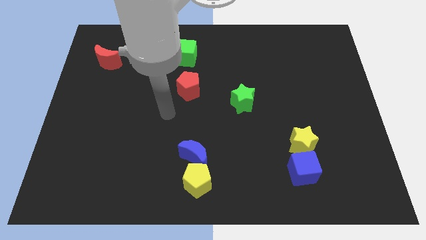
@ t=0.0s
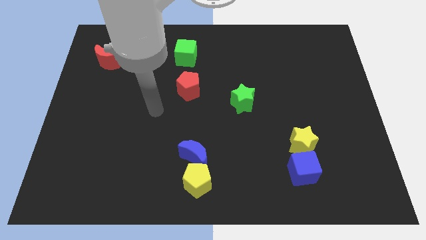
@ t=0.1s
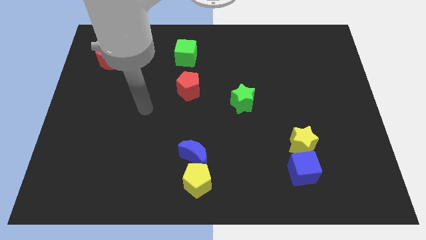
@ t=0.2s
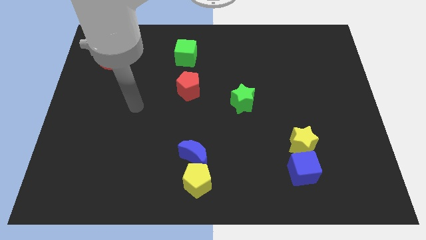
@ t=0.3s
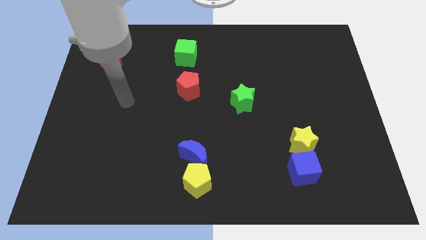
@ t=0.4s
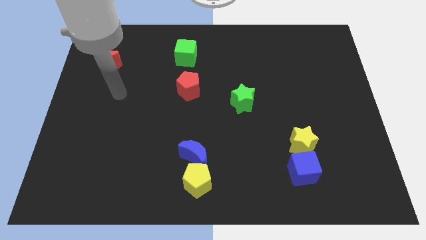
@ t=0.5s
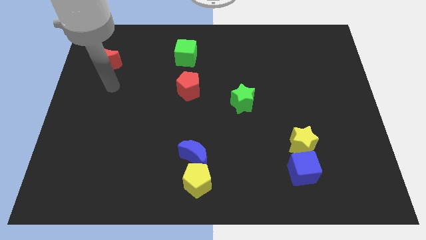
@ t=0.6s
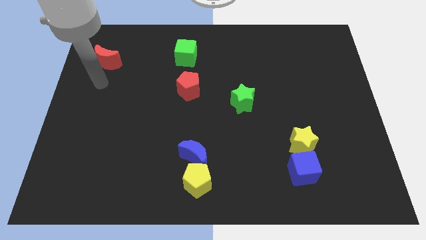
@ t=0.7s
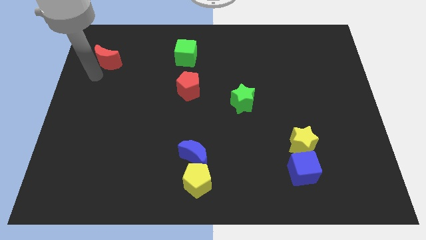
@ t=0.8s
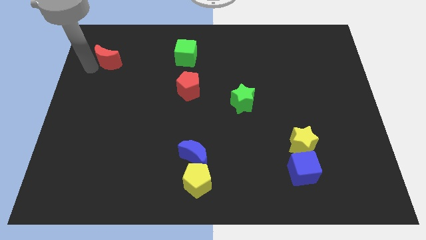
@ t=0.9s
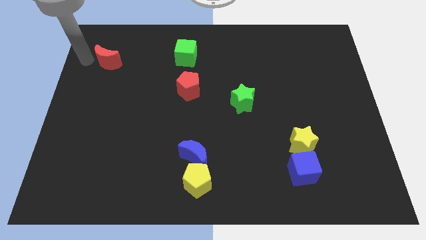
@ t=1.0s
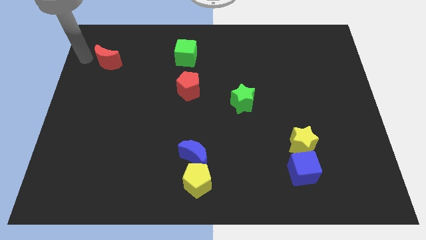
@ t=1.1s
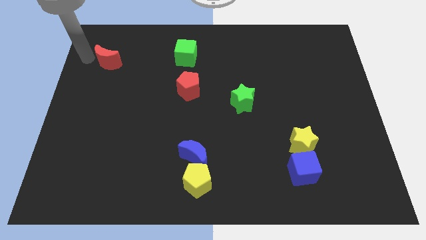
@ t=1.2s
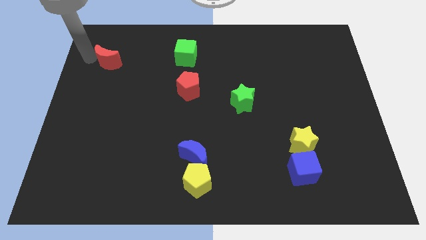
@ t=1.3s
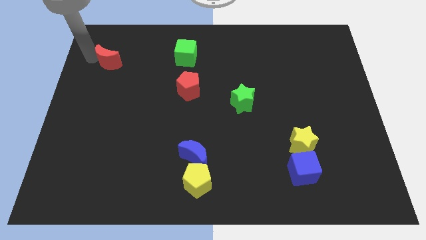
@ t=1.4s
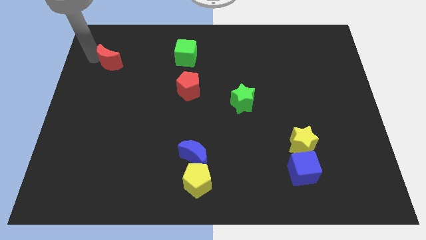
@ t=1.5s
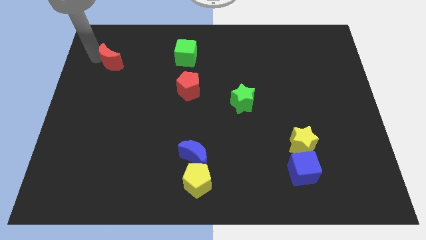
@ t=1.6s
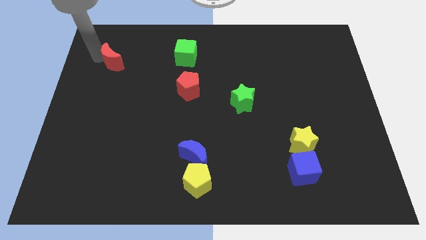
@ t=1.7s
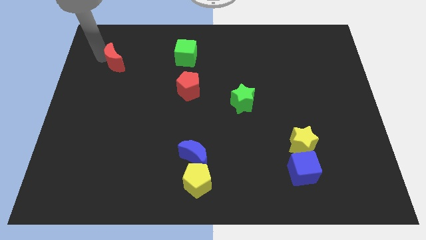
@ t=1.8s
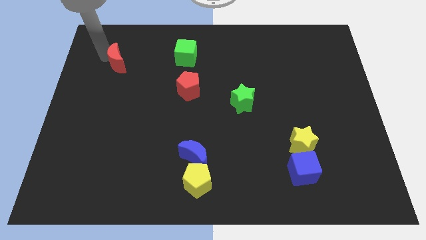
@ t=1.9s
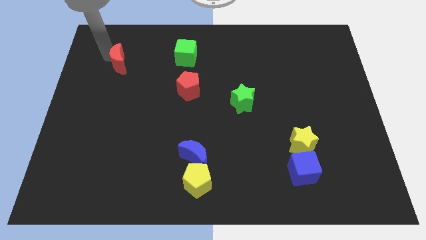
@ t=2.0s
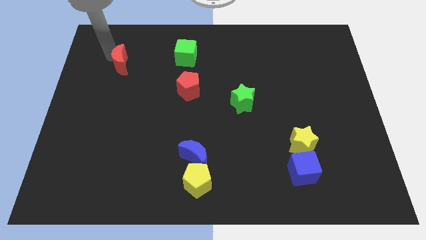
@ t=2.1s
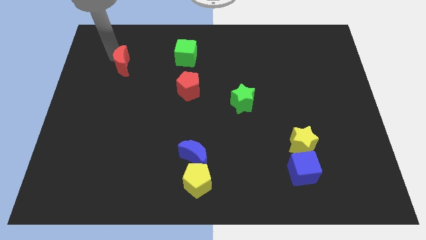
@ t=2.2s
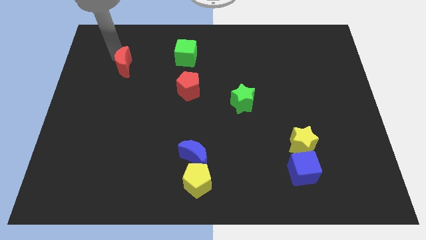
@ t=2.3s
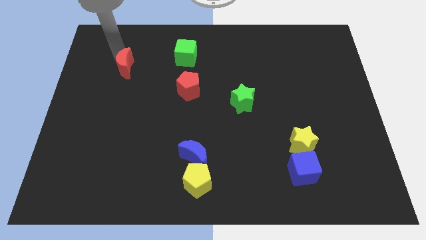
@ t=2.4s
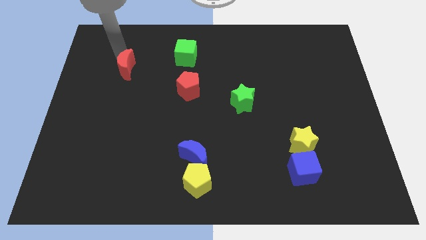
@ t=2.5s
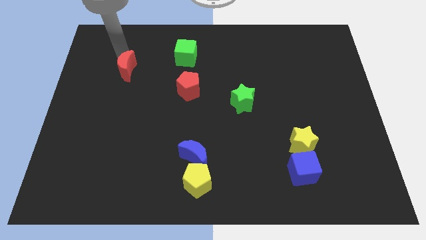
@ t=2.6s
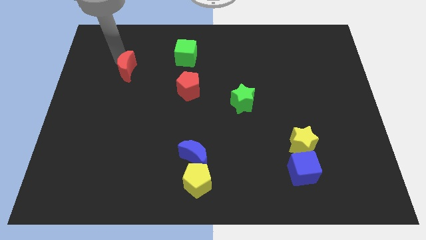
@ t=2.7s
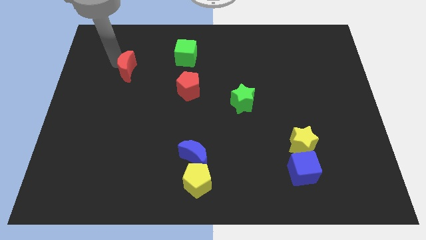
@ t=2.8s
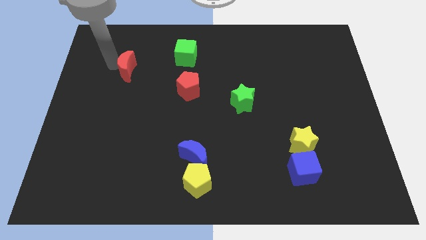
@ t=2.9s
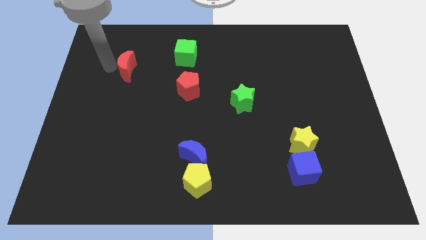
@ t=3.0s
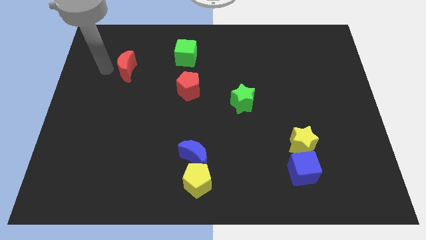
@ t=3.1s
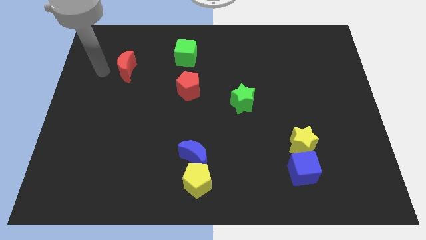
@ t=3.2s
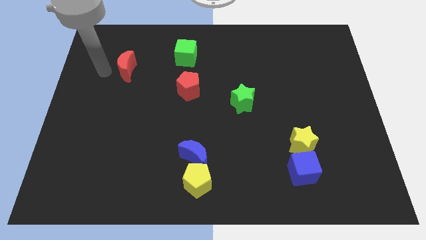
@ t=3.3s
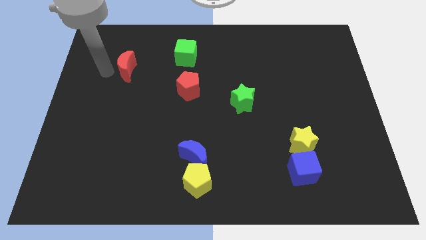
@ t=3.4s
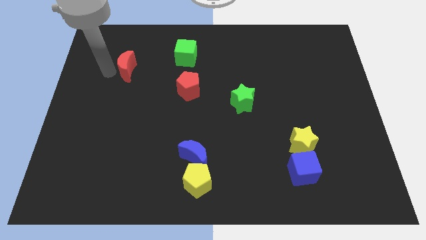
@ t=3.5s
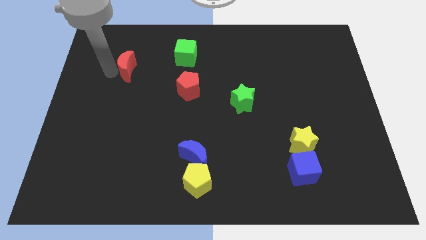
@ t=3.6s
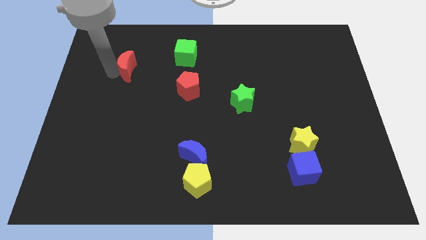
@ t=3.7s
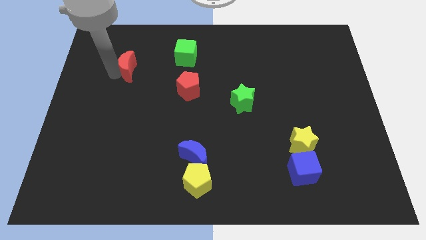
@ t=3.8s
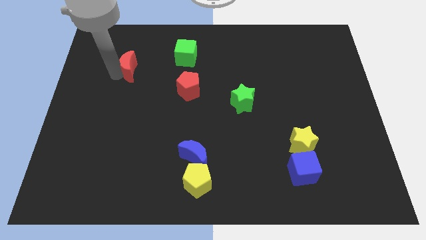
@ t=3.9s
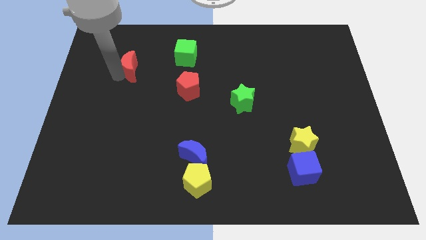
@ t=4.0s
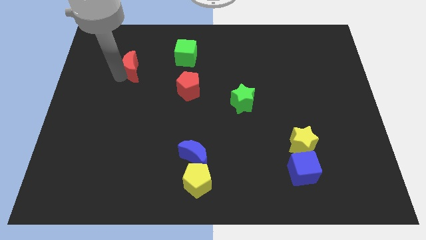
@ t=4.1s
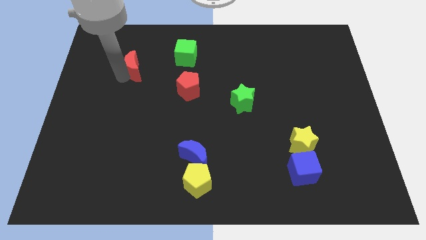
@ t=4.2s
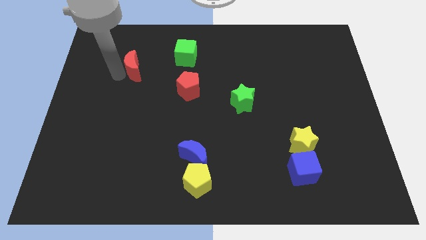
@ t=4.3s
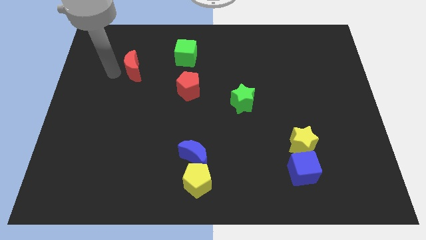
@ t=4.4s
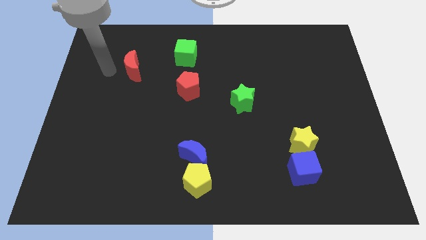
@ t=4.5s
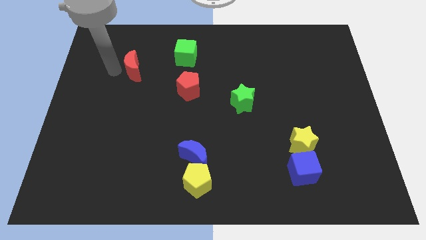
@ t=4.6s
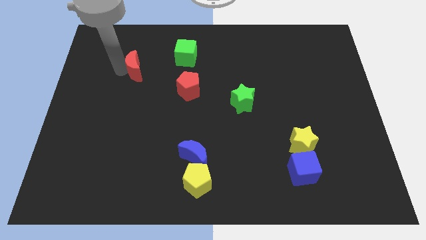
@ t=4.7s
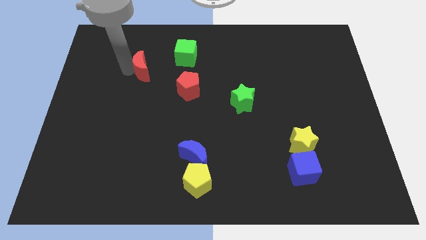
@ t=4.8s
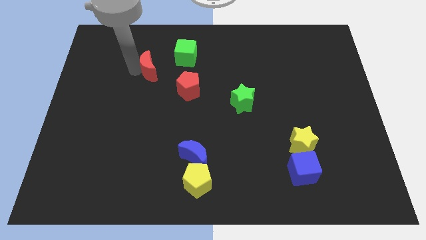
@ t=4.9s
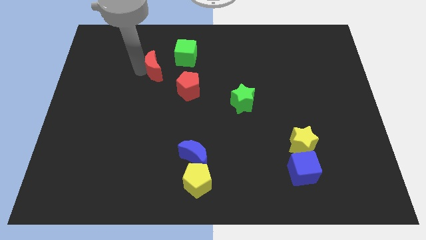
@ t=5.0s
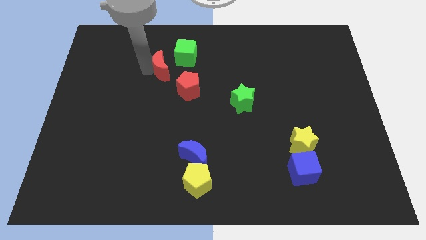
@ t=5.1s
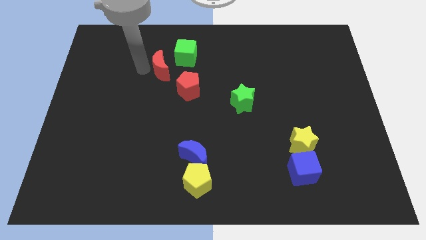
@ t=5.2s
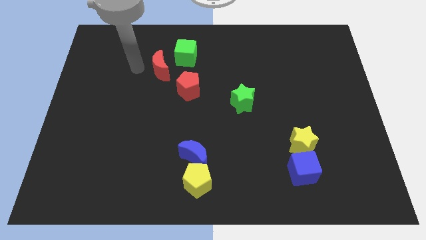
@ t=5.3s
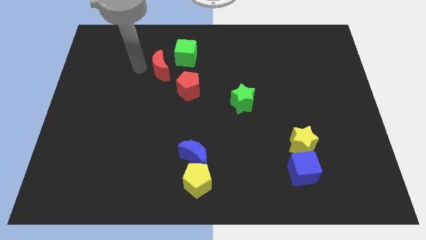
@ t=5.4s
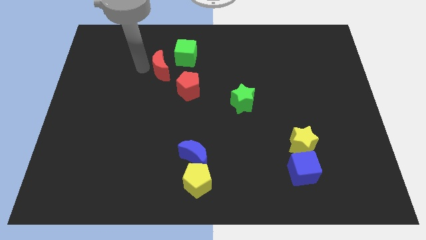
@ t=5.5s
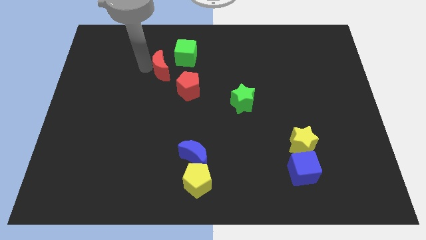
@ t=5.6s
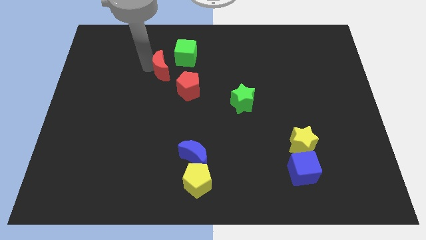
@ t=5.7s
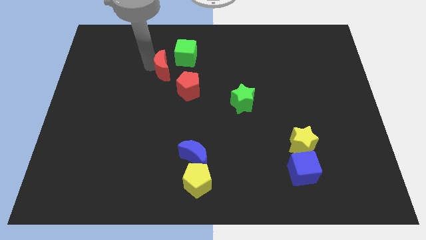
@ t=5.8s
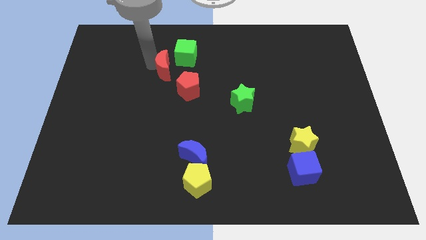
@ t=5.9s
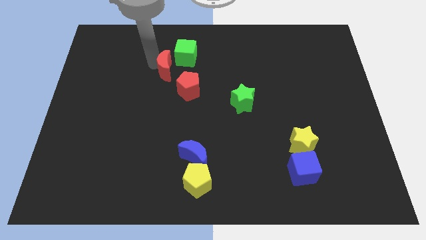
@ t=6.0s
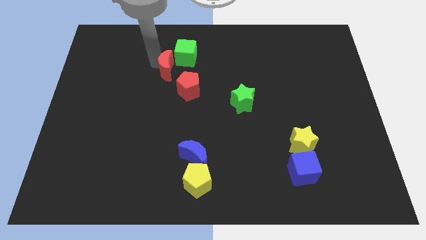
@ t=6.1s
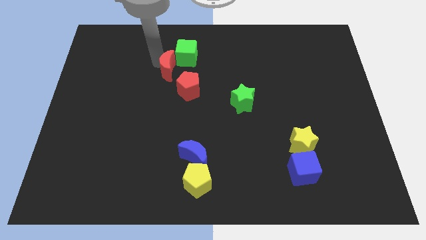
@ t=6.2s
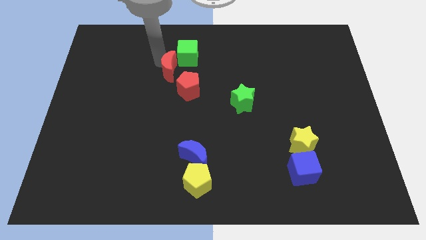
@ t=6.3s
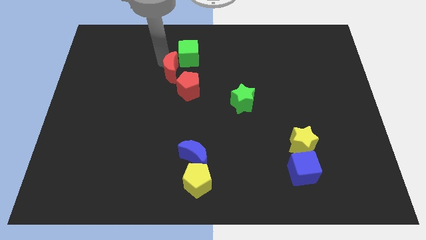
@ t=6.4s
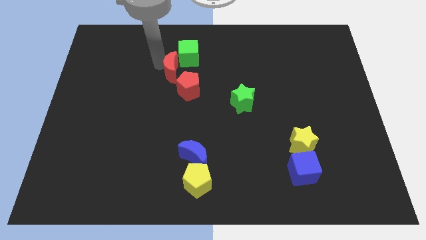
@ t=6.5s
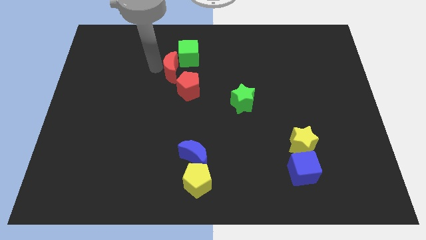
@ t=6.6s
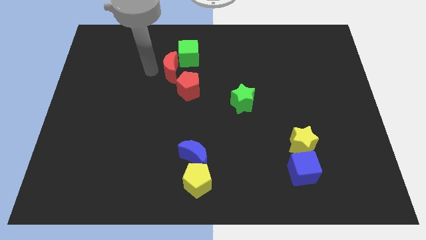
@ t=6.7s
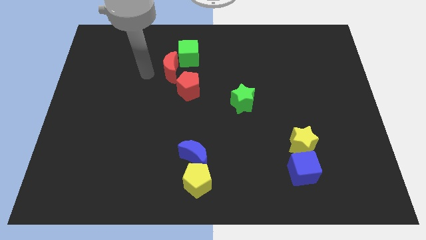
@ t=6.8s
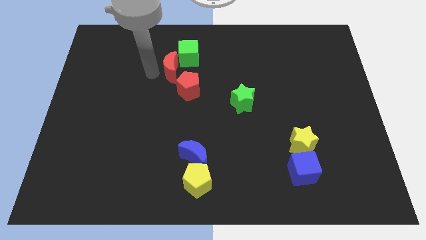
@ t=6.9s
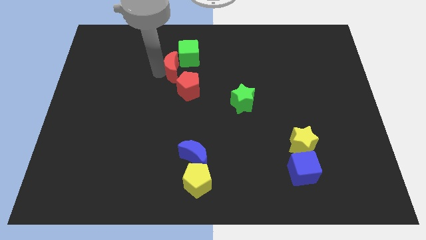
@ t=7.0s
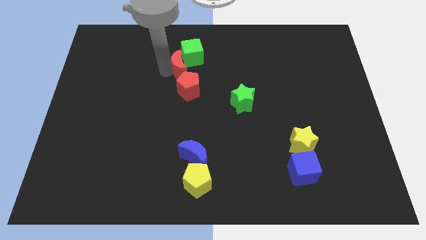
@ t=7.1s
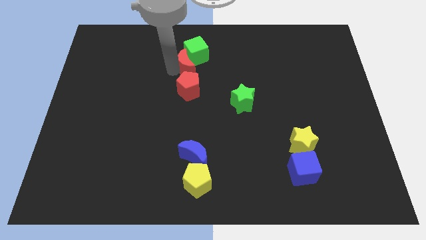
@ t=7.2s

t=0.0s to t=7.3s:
move the red moon right

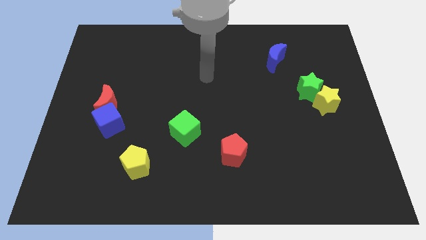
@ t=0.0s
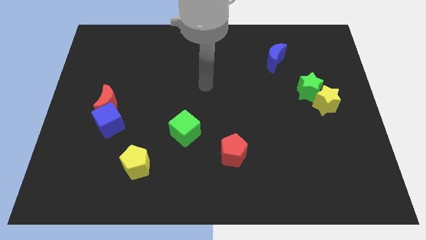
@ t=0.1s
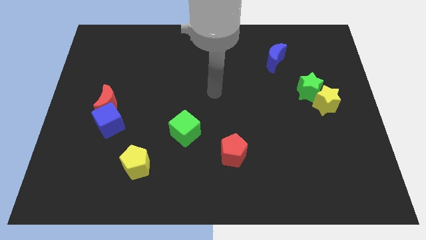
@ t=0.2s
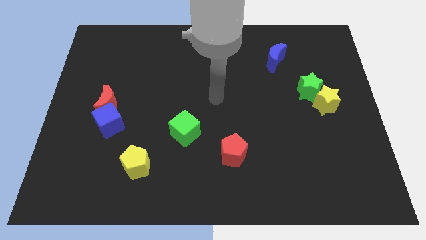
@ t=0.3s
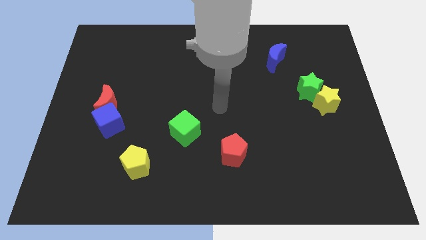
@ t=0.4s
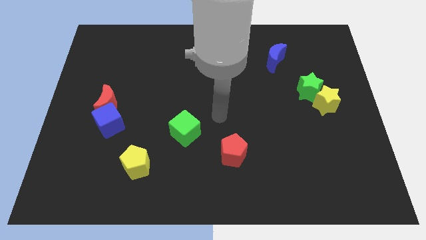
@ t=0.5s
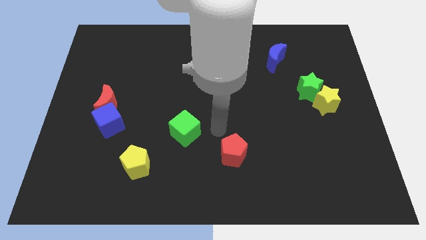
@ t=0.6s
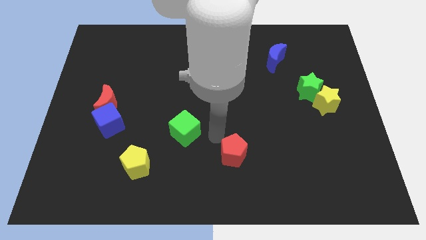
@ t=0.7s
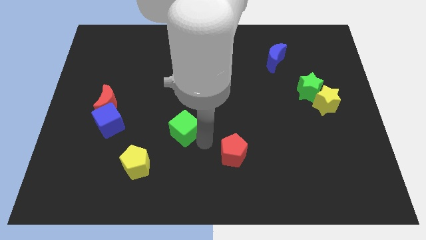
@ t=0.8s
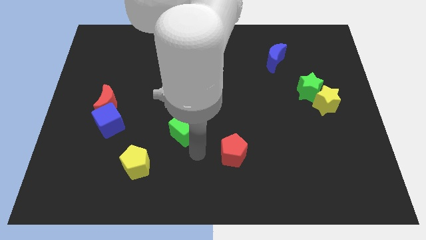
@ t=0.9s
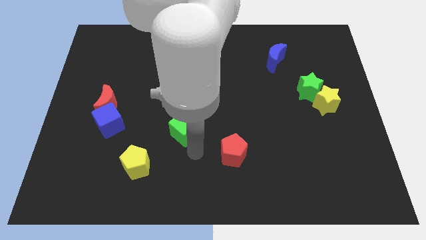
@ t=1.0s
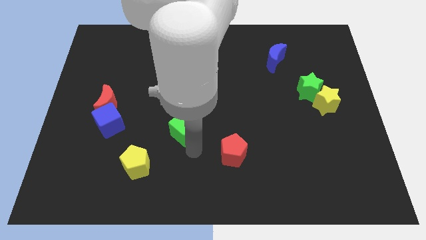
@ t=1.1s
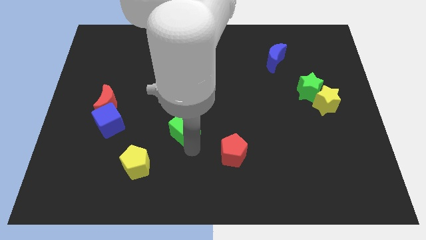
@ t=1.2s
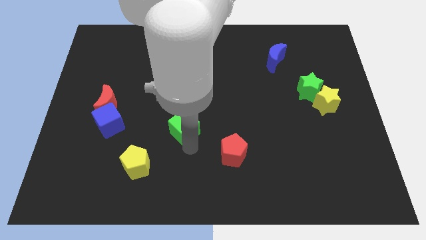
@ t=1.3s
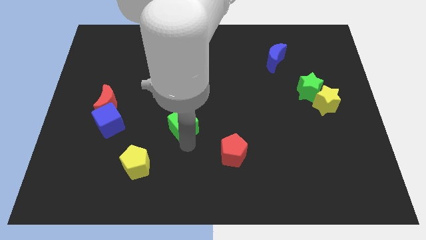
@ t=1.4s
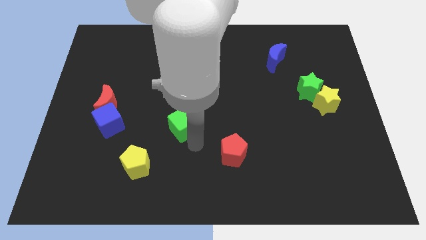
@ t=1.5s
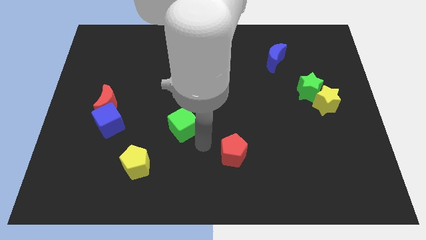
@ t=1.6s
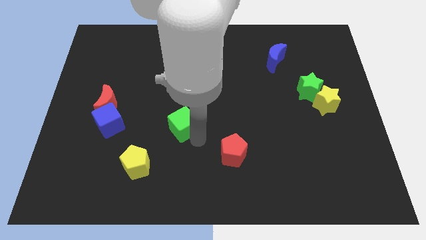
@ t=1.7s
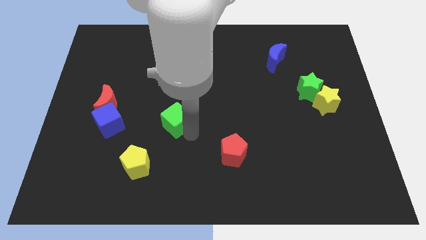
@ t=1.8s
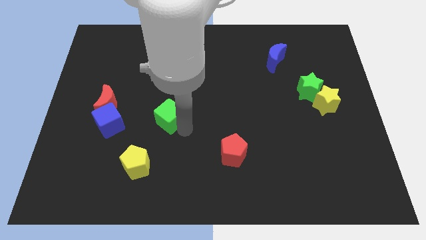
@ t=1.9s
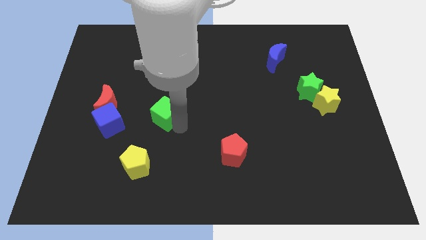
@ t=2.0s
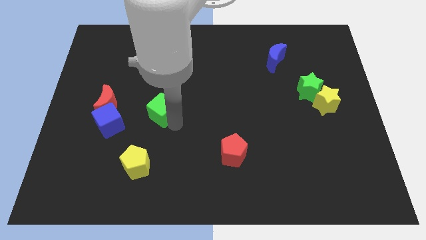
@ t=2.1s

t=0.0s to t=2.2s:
push the green cube up and to the left a little bit
